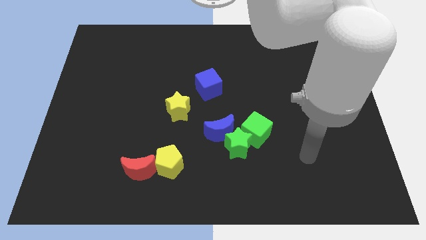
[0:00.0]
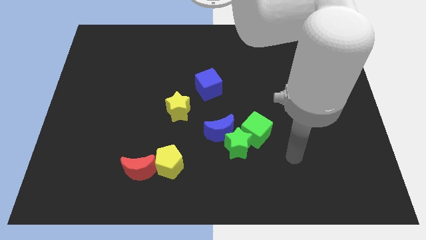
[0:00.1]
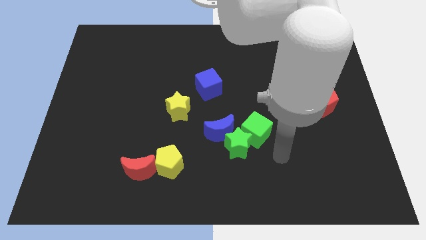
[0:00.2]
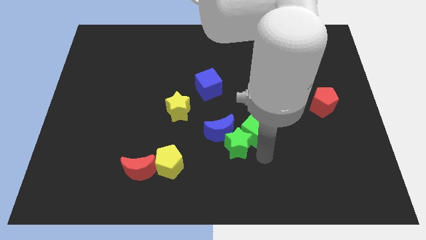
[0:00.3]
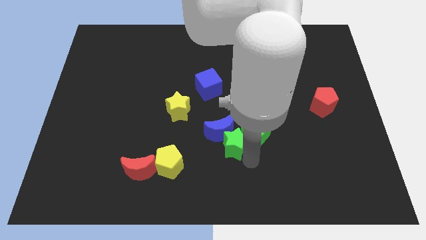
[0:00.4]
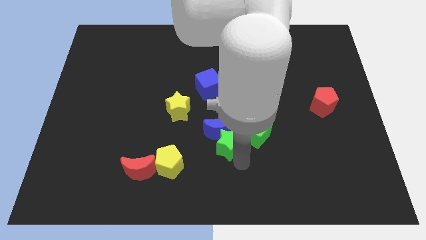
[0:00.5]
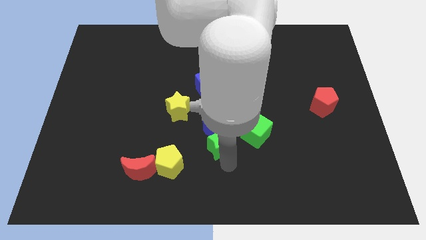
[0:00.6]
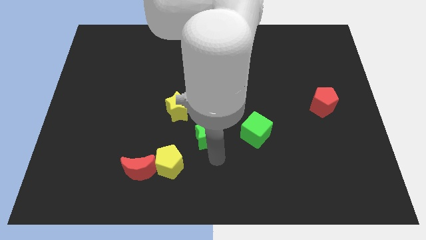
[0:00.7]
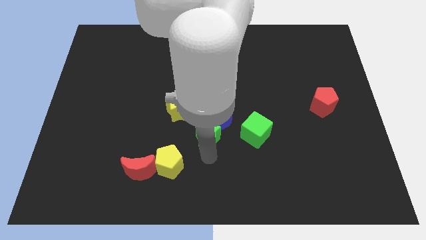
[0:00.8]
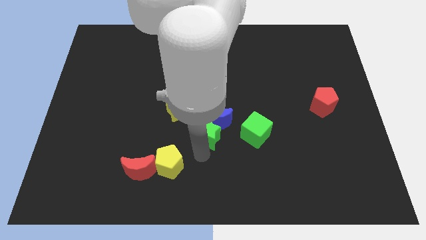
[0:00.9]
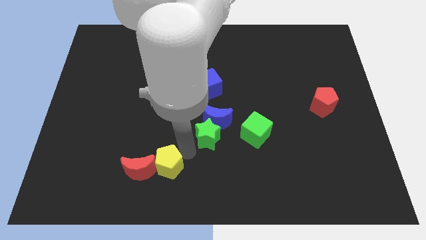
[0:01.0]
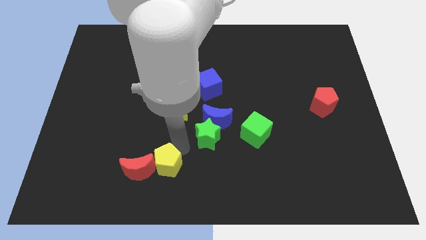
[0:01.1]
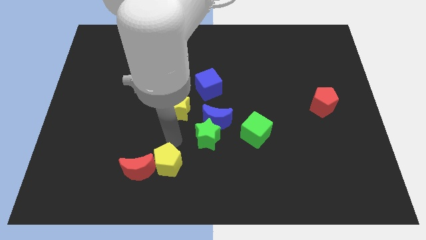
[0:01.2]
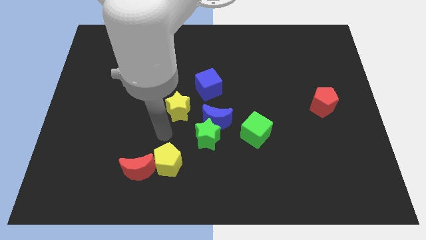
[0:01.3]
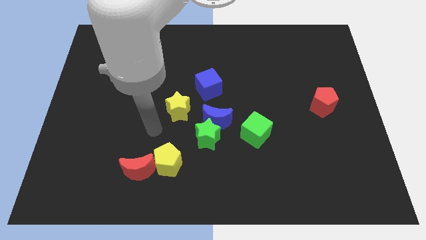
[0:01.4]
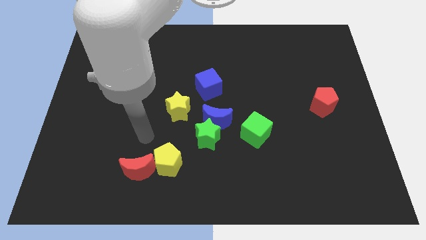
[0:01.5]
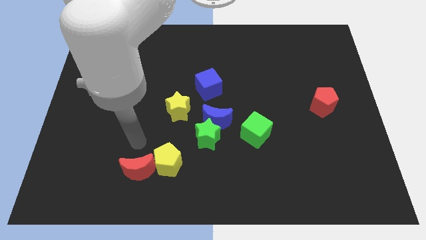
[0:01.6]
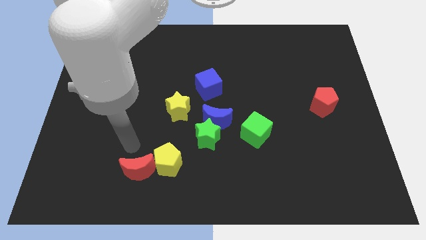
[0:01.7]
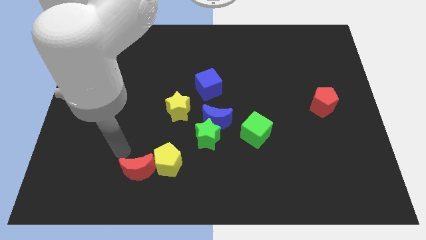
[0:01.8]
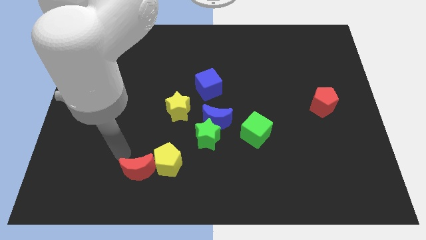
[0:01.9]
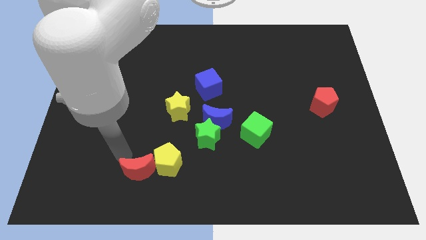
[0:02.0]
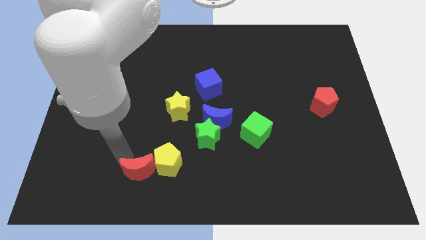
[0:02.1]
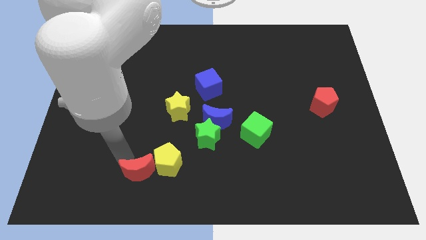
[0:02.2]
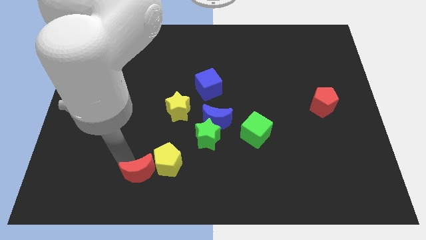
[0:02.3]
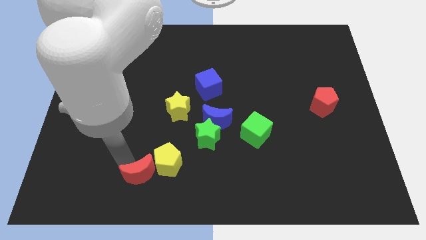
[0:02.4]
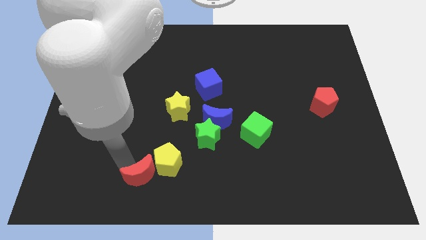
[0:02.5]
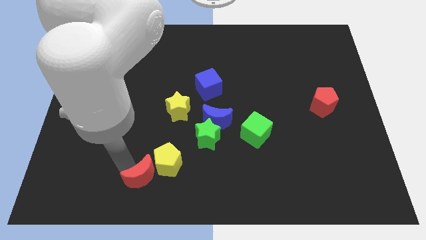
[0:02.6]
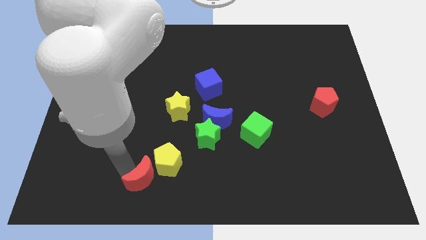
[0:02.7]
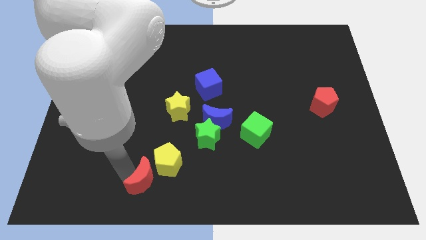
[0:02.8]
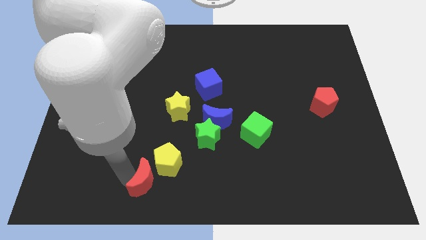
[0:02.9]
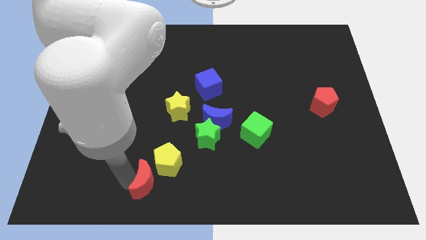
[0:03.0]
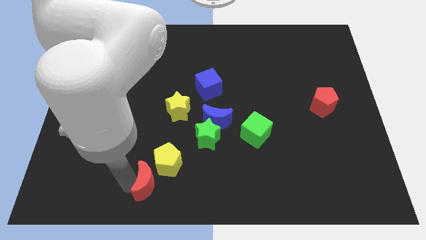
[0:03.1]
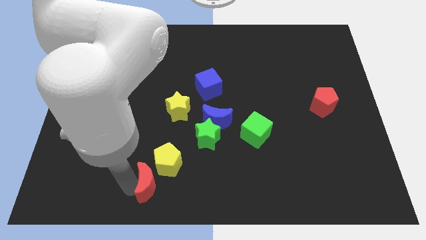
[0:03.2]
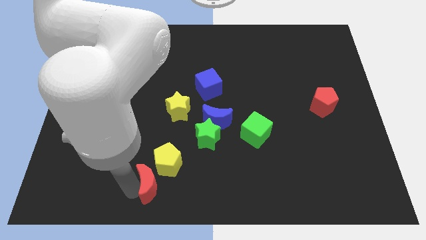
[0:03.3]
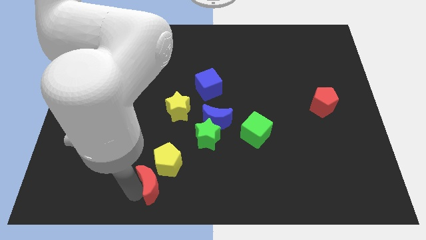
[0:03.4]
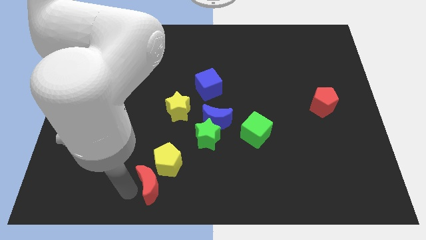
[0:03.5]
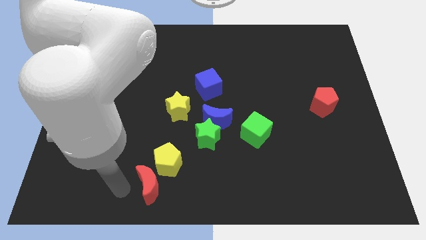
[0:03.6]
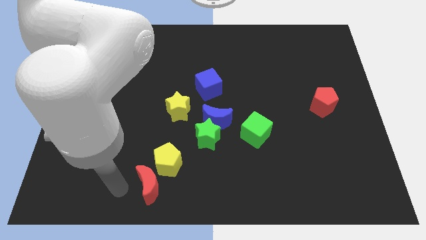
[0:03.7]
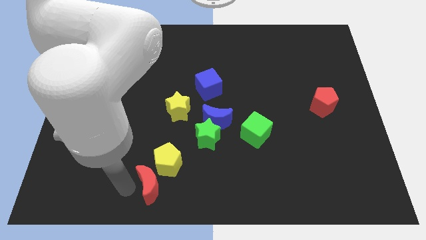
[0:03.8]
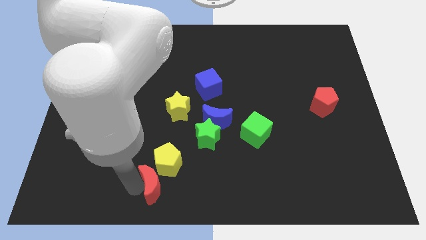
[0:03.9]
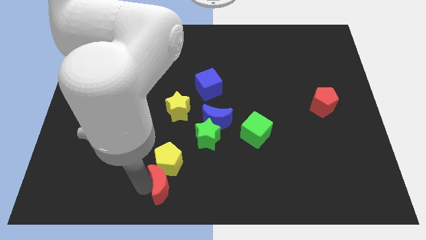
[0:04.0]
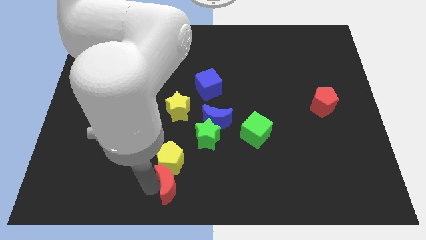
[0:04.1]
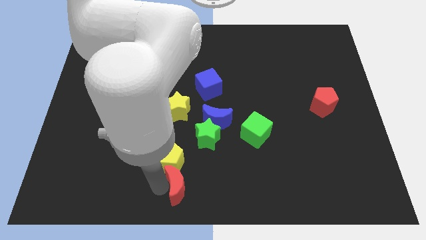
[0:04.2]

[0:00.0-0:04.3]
move the red moon a little to the right

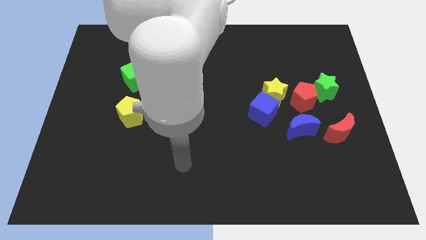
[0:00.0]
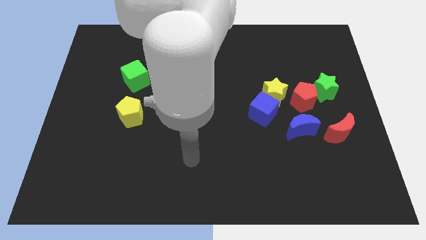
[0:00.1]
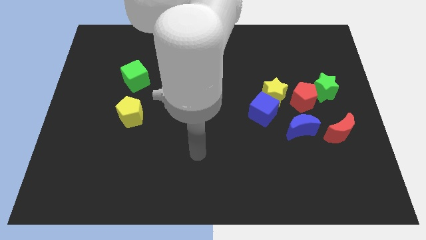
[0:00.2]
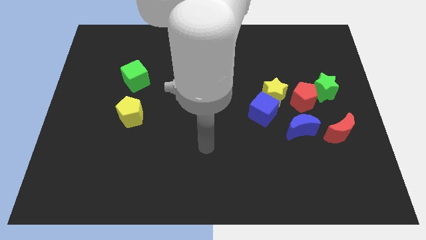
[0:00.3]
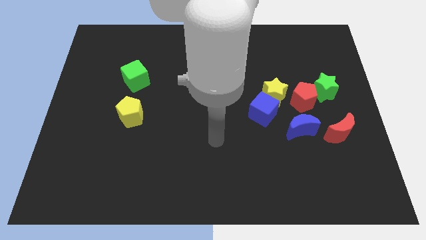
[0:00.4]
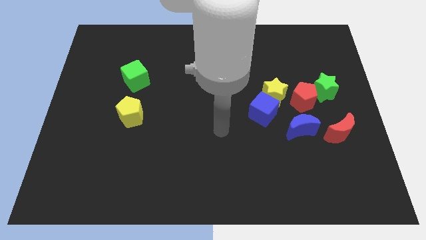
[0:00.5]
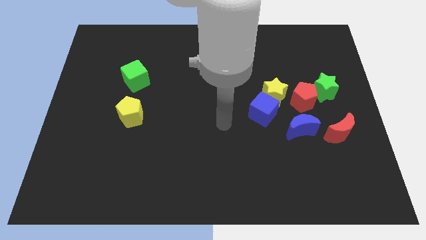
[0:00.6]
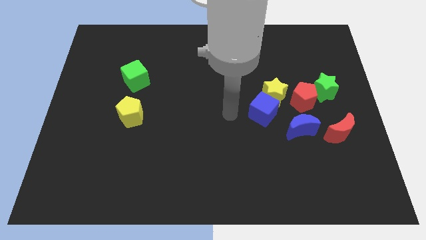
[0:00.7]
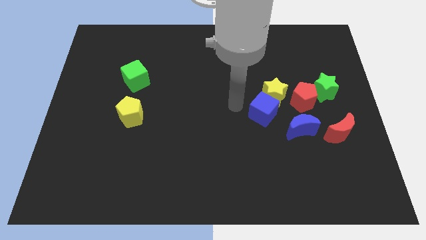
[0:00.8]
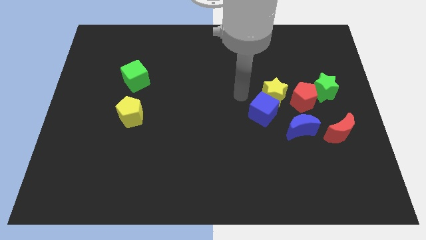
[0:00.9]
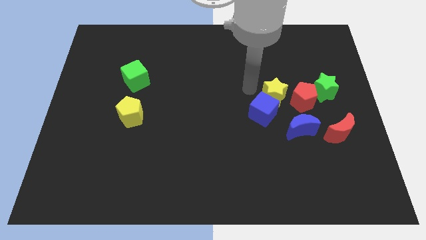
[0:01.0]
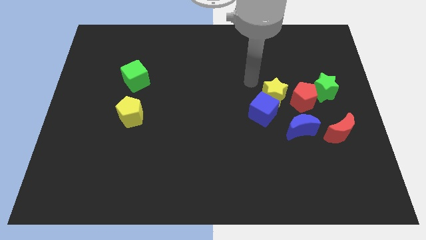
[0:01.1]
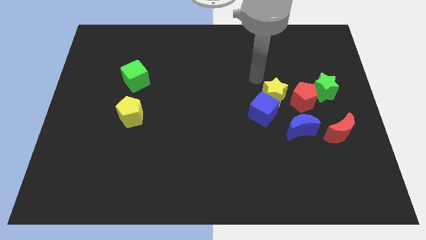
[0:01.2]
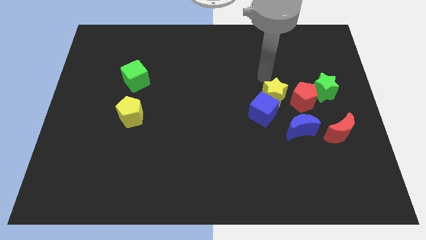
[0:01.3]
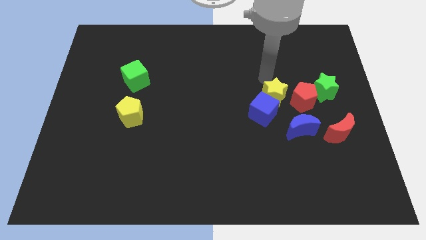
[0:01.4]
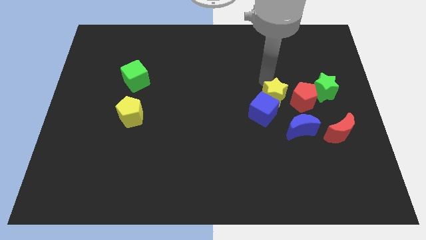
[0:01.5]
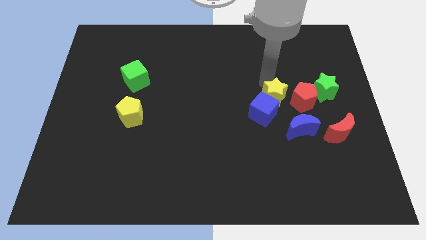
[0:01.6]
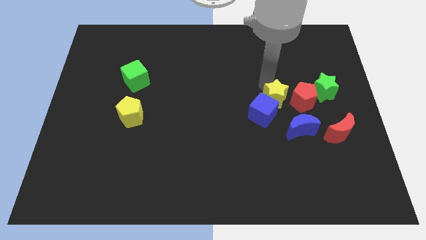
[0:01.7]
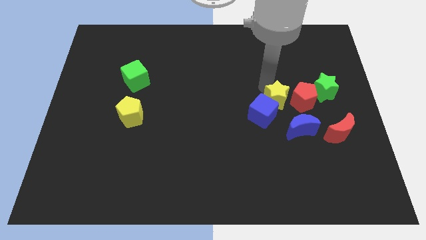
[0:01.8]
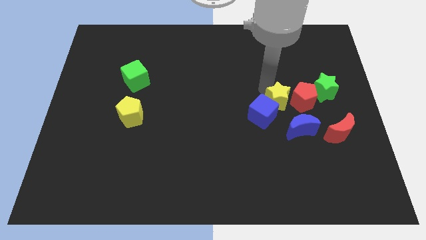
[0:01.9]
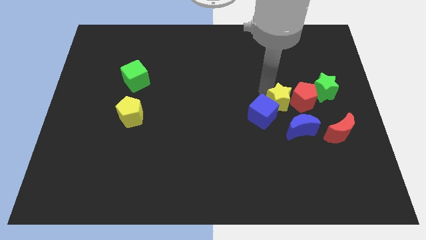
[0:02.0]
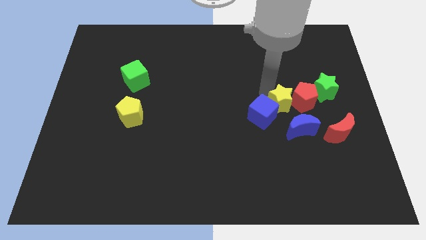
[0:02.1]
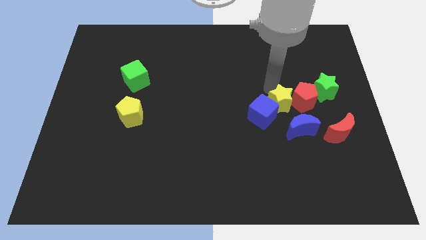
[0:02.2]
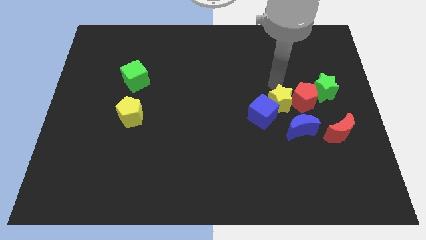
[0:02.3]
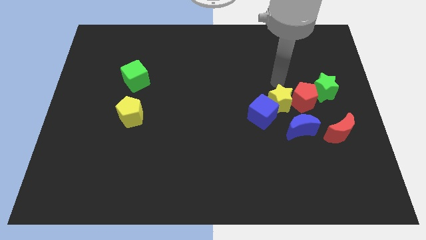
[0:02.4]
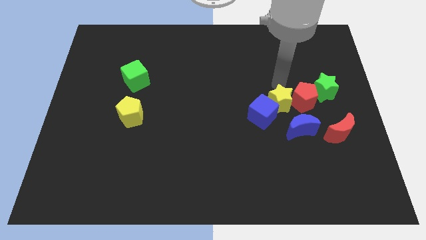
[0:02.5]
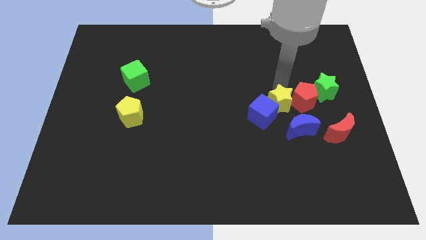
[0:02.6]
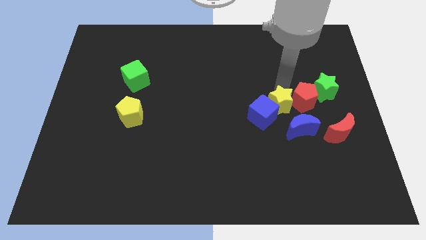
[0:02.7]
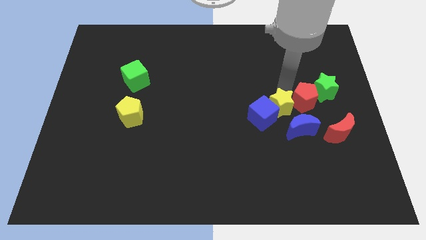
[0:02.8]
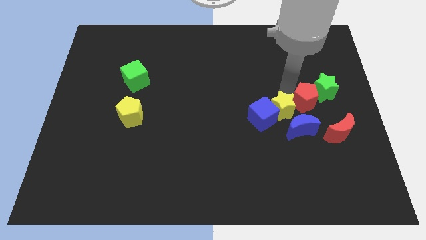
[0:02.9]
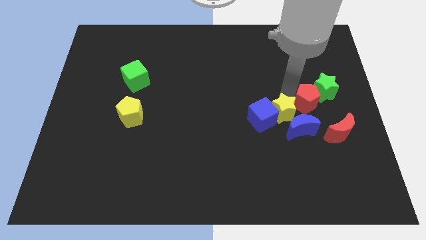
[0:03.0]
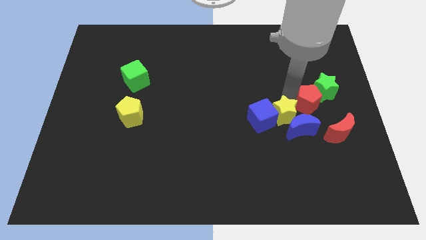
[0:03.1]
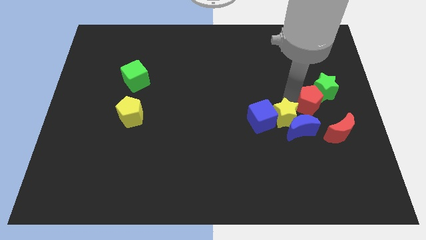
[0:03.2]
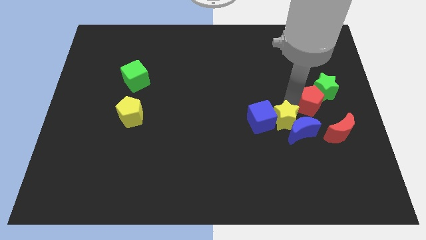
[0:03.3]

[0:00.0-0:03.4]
slide the yellow star somewhat downwards
